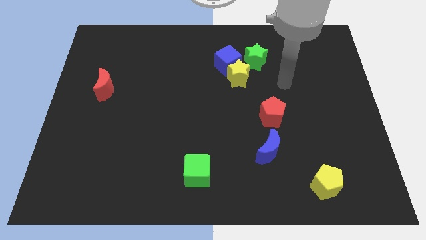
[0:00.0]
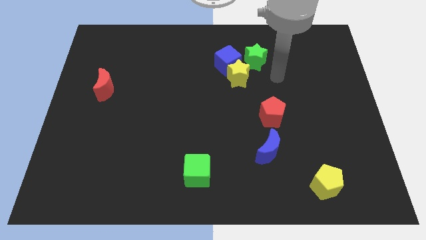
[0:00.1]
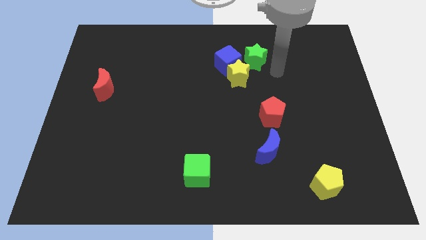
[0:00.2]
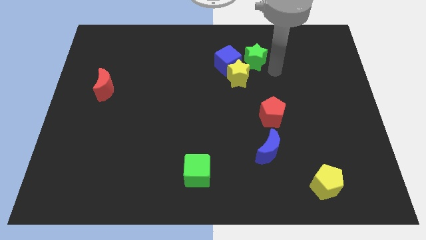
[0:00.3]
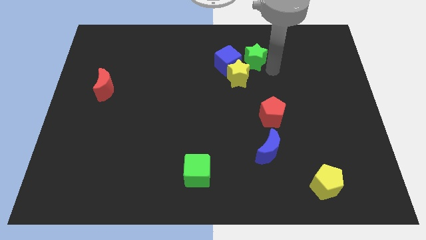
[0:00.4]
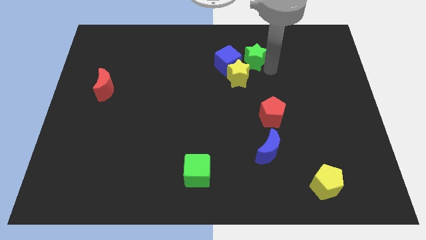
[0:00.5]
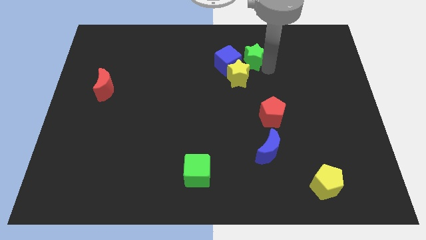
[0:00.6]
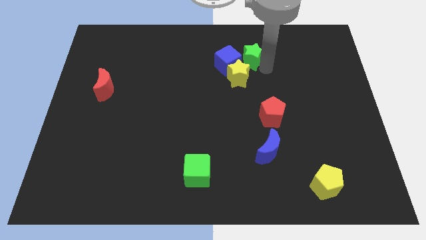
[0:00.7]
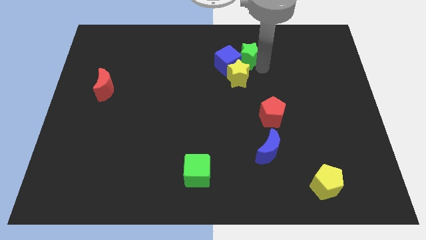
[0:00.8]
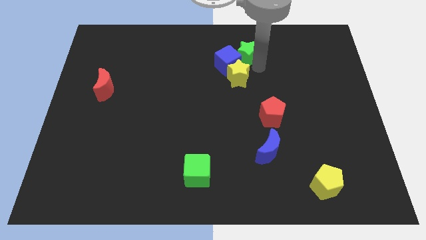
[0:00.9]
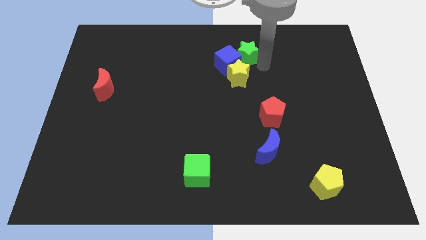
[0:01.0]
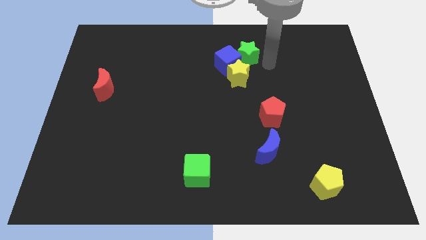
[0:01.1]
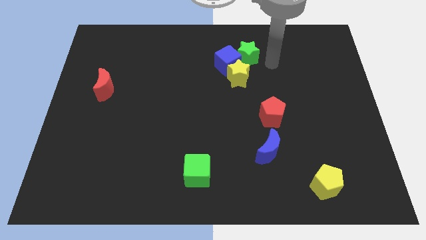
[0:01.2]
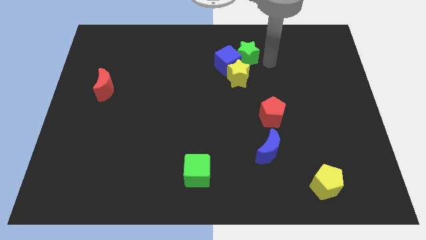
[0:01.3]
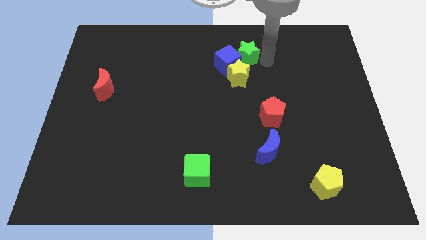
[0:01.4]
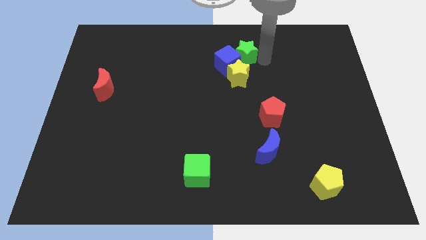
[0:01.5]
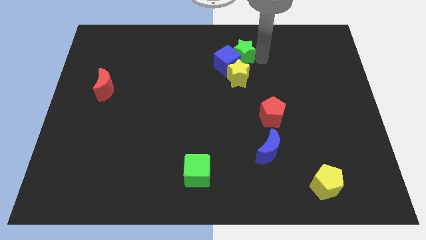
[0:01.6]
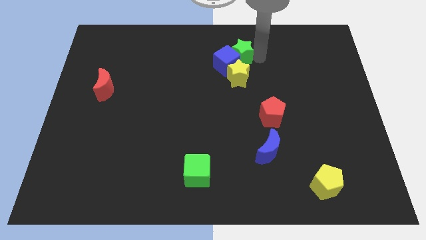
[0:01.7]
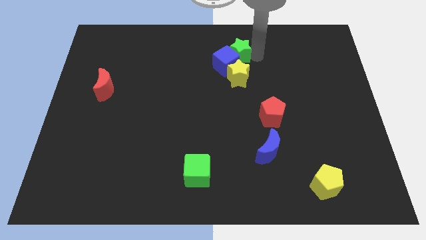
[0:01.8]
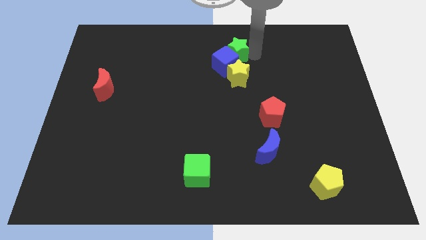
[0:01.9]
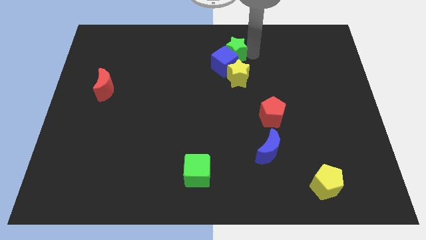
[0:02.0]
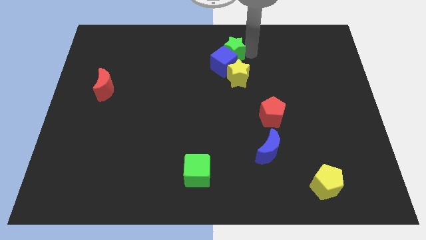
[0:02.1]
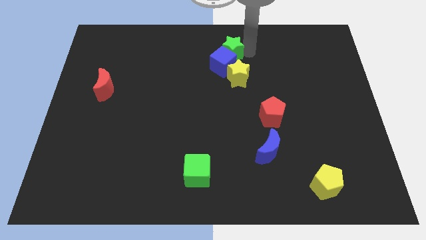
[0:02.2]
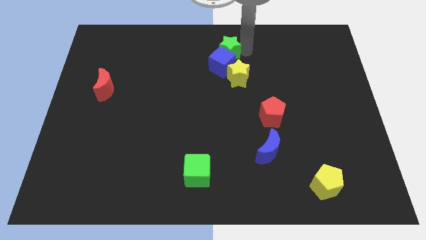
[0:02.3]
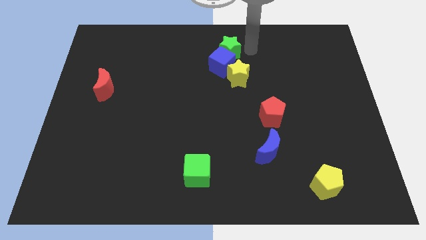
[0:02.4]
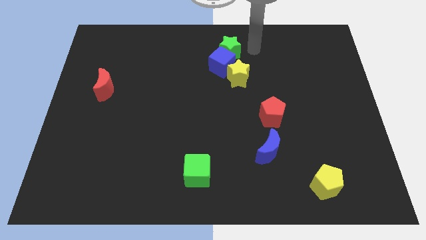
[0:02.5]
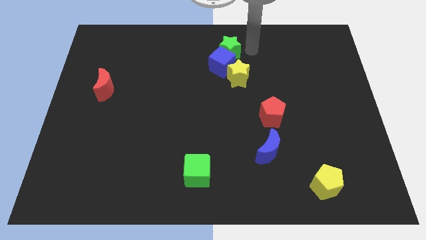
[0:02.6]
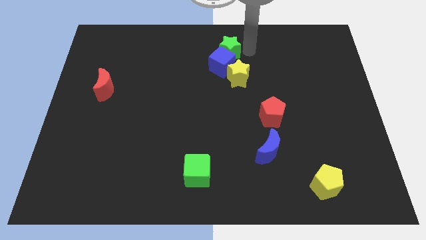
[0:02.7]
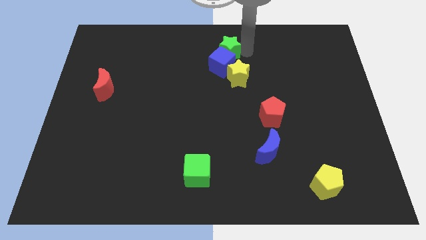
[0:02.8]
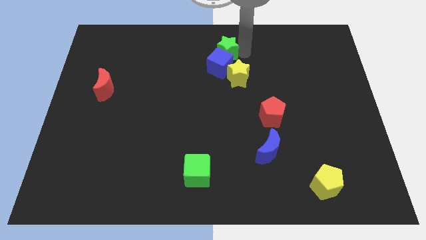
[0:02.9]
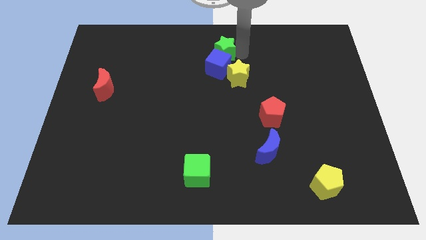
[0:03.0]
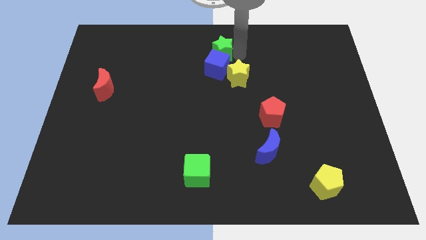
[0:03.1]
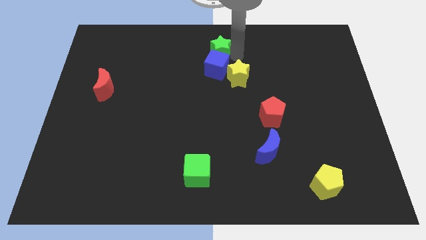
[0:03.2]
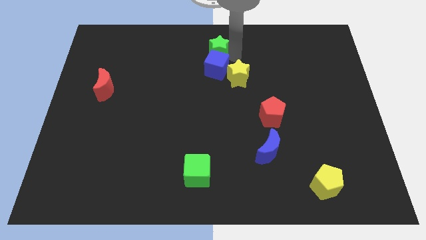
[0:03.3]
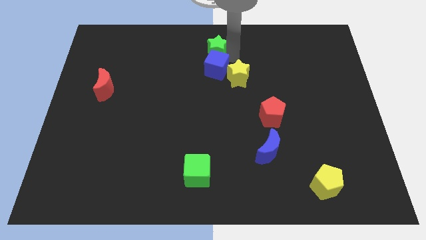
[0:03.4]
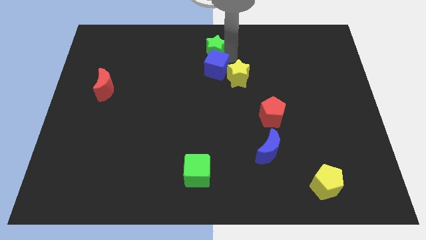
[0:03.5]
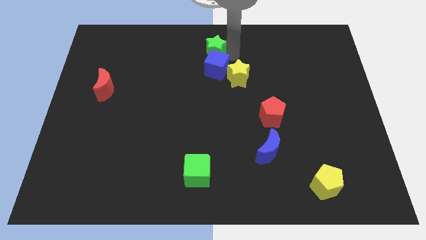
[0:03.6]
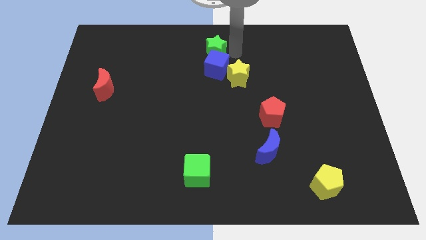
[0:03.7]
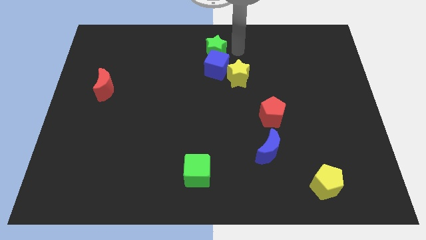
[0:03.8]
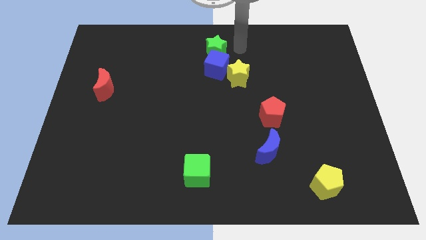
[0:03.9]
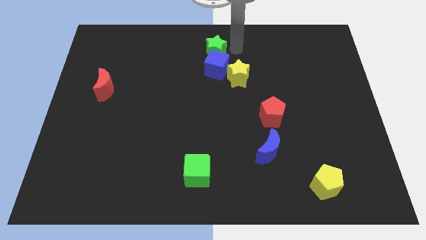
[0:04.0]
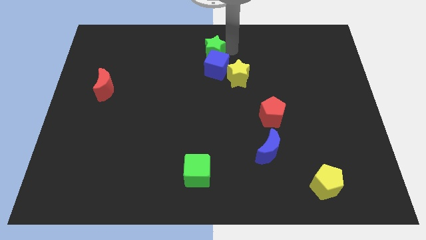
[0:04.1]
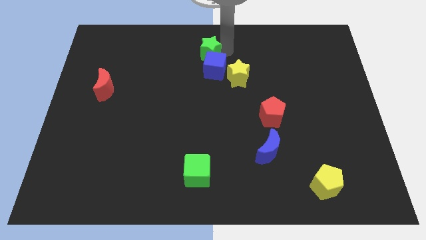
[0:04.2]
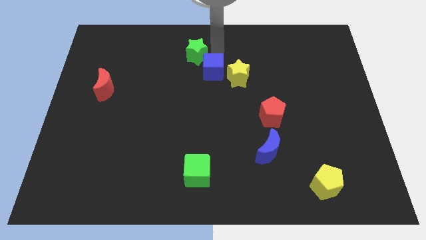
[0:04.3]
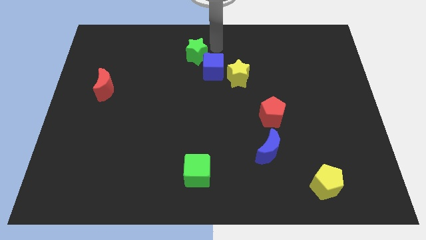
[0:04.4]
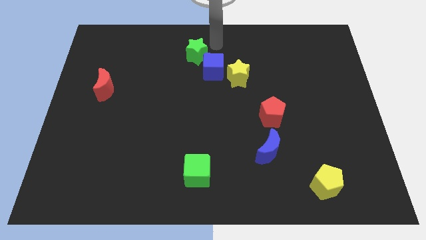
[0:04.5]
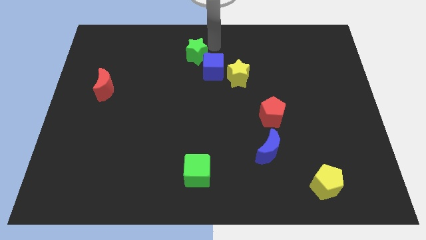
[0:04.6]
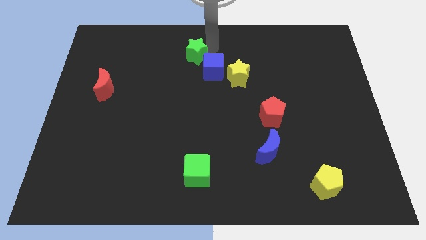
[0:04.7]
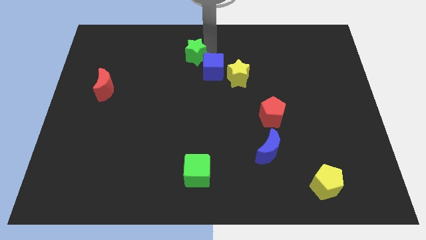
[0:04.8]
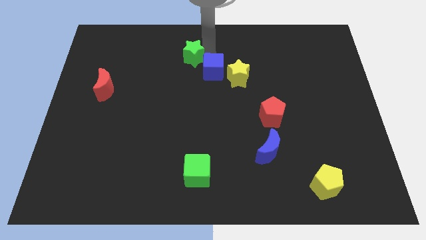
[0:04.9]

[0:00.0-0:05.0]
move the green star just left of the blue cube

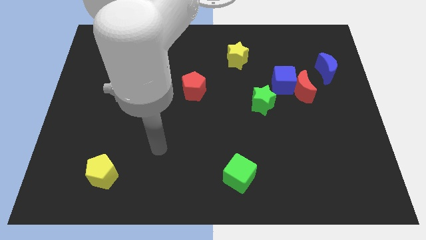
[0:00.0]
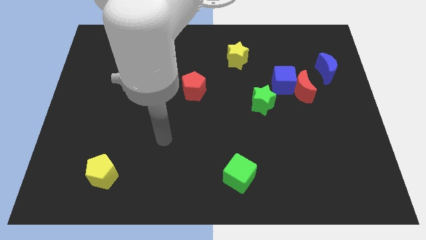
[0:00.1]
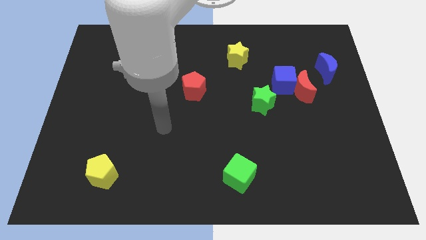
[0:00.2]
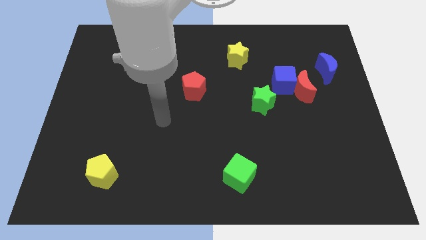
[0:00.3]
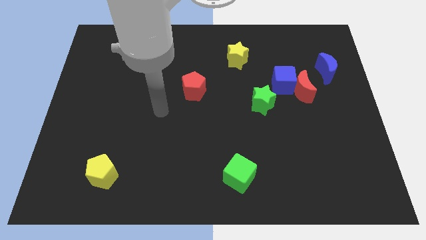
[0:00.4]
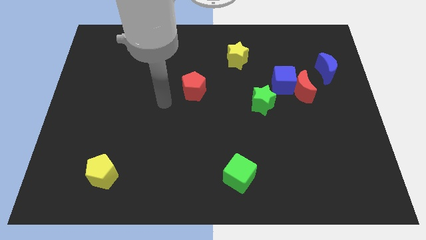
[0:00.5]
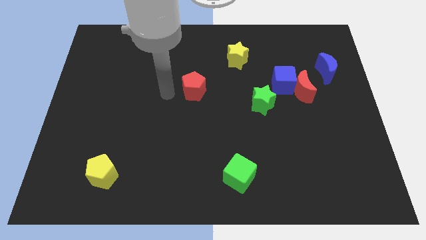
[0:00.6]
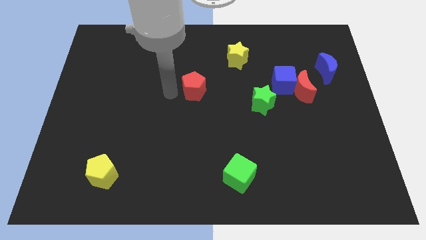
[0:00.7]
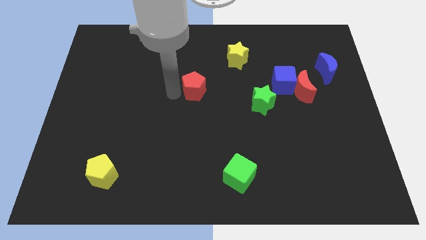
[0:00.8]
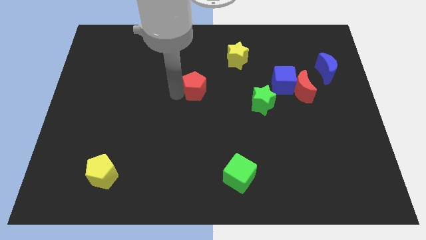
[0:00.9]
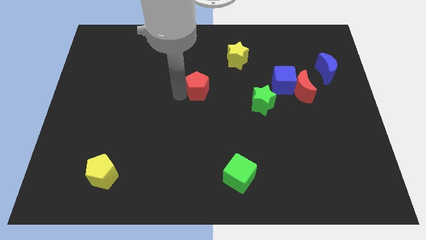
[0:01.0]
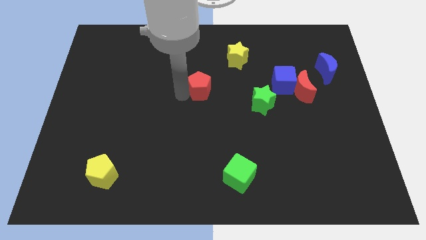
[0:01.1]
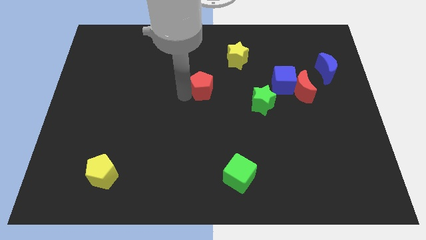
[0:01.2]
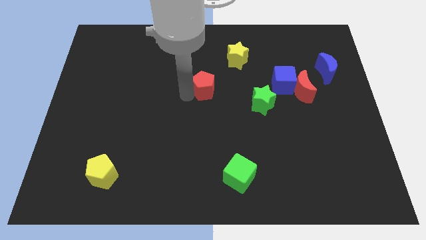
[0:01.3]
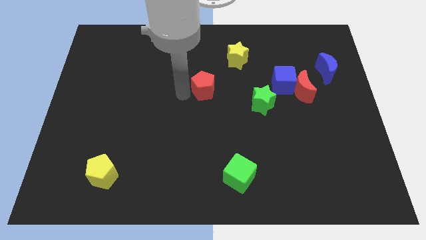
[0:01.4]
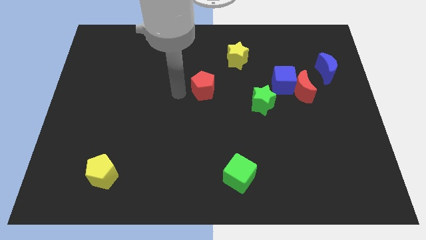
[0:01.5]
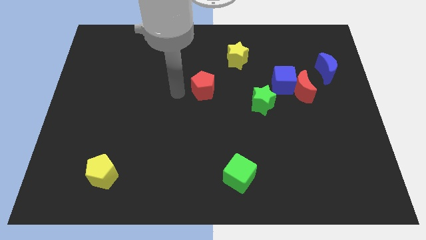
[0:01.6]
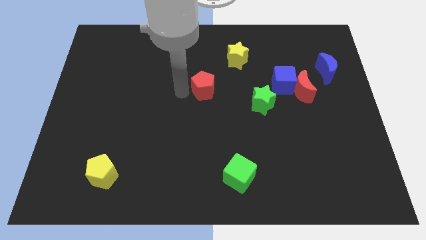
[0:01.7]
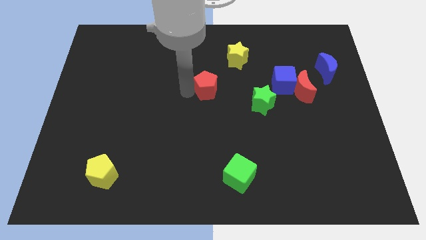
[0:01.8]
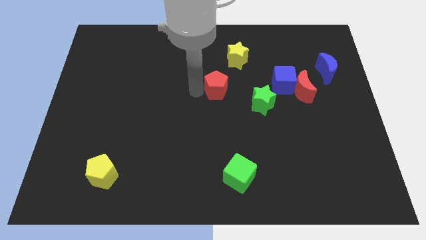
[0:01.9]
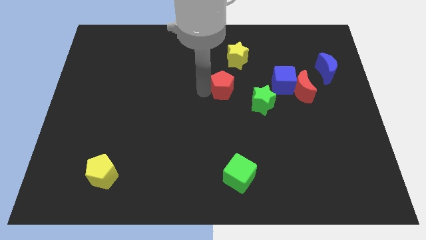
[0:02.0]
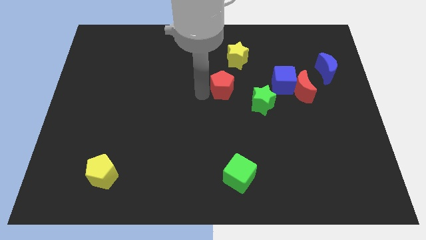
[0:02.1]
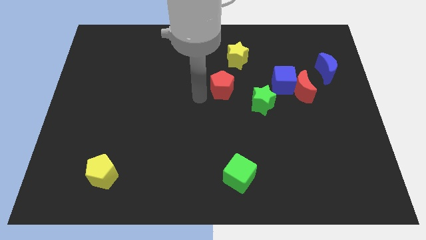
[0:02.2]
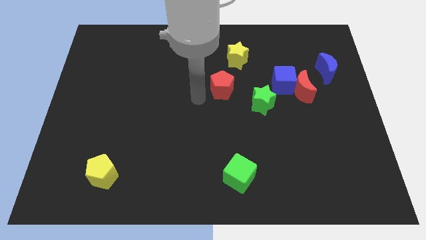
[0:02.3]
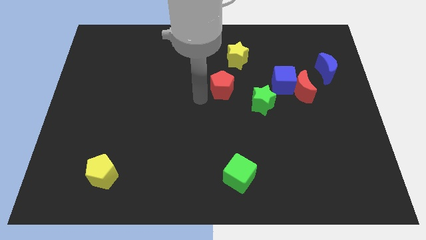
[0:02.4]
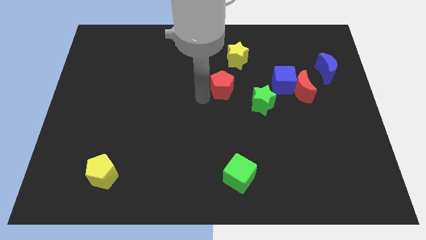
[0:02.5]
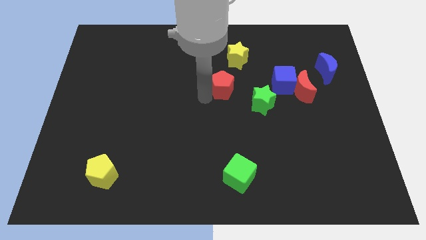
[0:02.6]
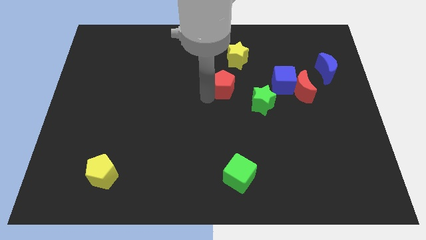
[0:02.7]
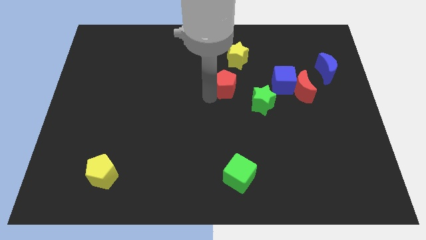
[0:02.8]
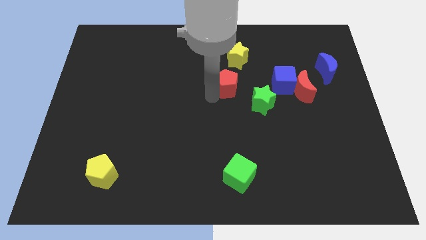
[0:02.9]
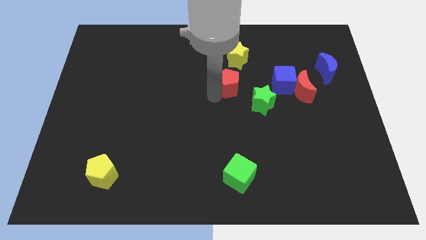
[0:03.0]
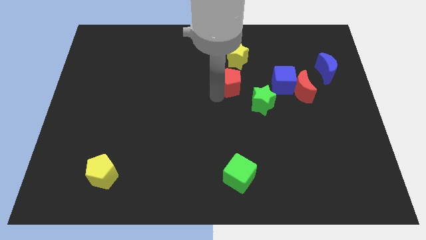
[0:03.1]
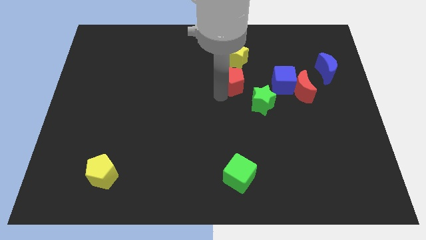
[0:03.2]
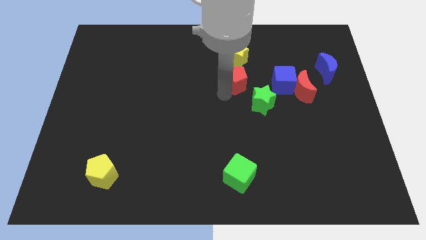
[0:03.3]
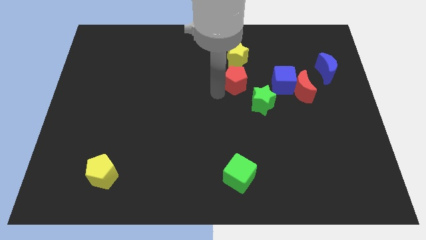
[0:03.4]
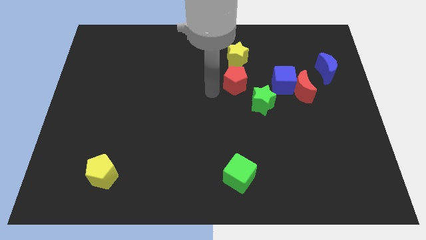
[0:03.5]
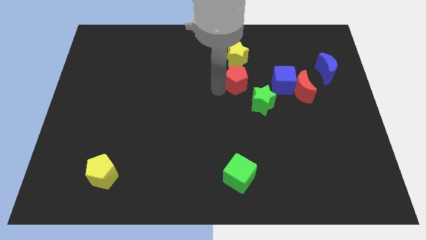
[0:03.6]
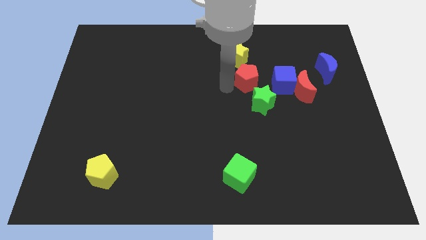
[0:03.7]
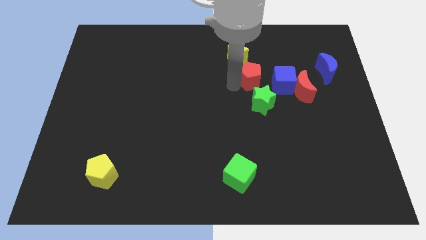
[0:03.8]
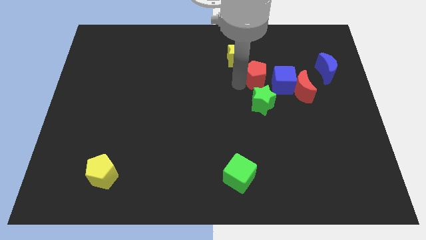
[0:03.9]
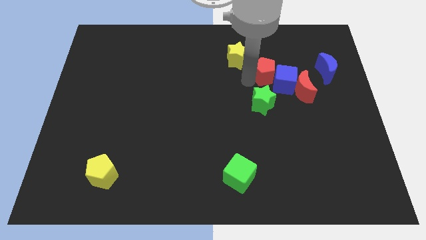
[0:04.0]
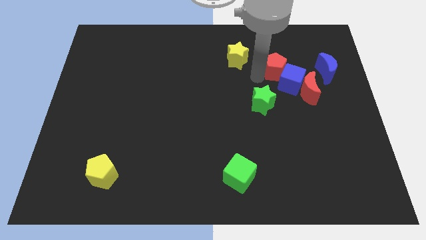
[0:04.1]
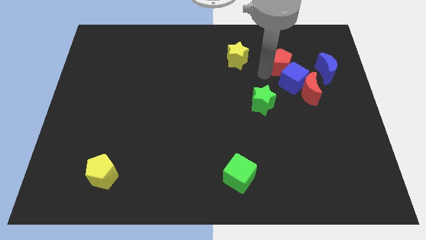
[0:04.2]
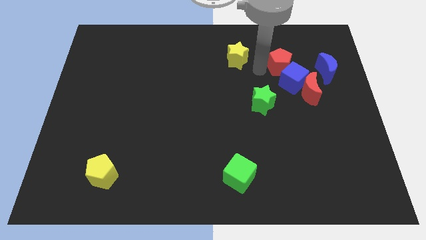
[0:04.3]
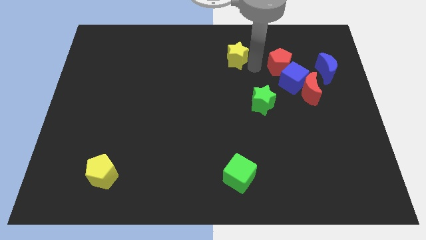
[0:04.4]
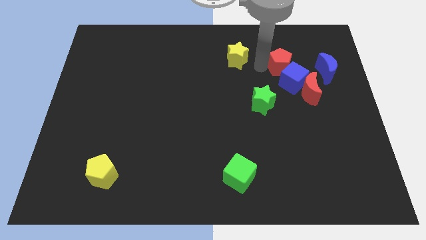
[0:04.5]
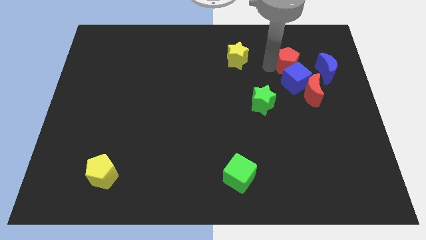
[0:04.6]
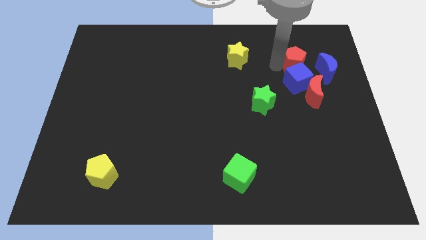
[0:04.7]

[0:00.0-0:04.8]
put the red pentagon diagonally up and to the right of the blue cube
